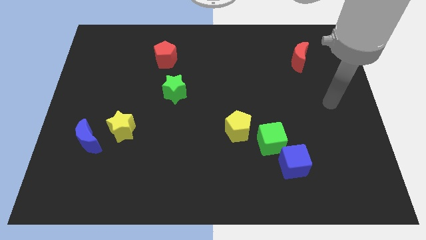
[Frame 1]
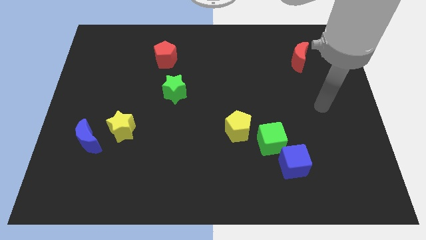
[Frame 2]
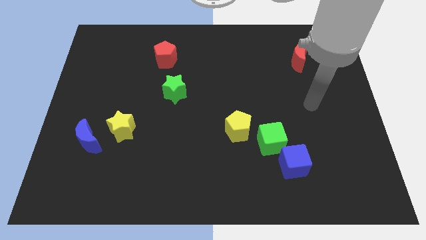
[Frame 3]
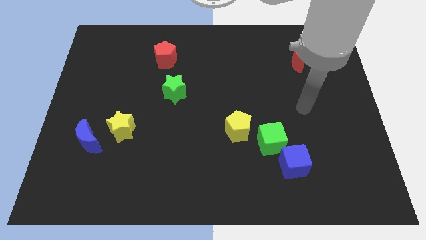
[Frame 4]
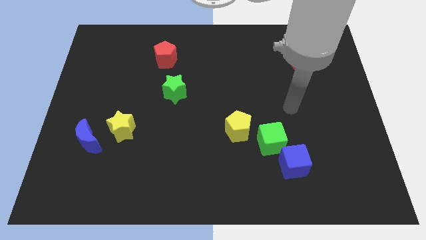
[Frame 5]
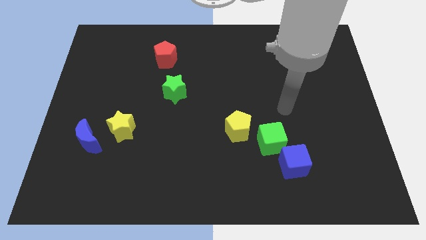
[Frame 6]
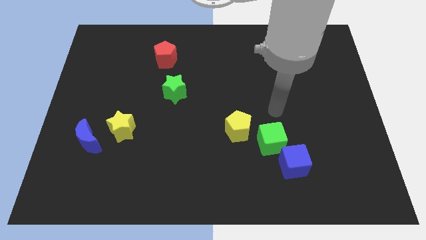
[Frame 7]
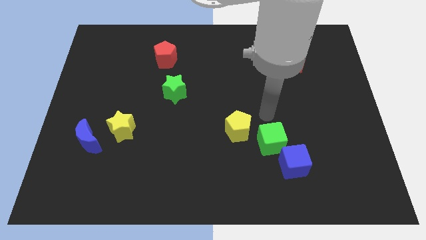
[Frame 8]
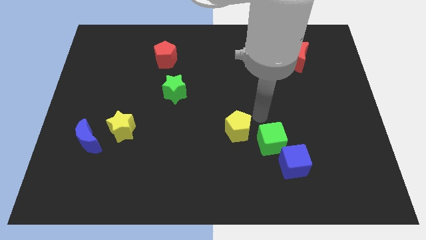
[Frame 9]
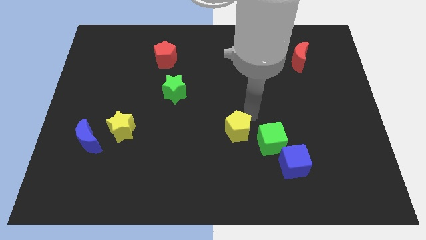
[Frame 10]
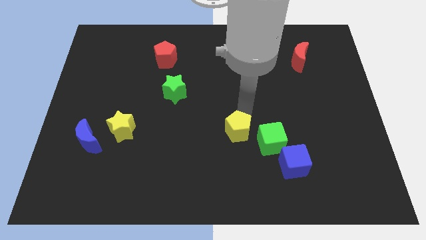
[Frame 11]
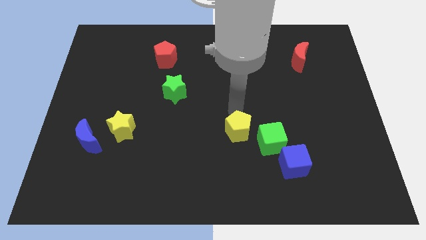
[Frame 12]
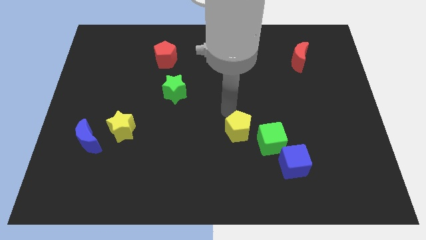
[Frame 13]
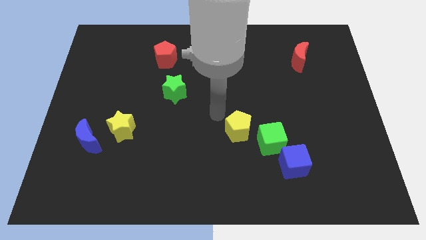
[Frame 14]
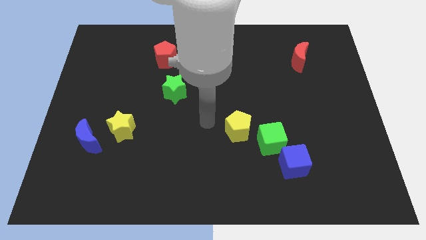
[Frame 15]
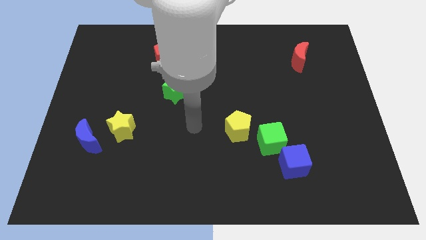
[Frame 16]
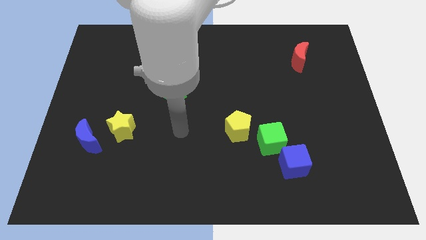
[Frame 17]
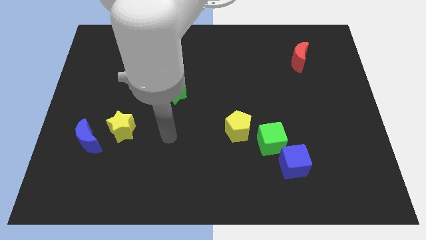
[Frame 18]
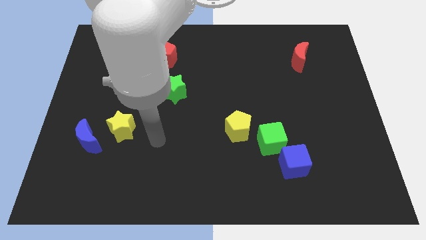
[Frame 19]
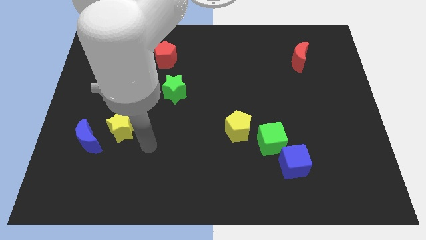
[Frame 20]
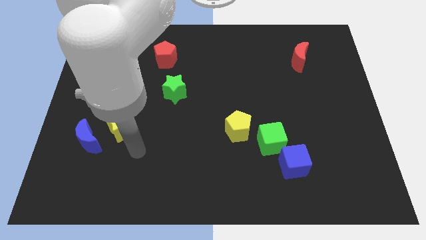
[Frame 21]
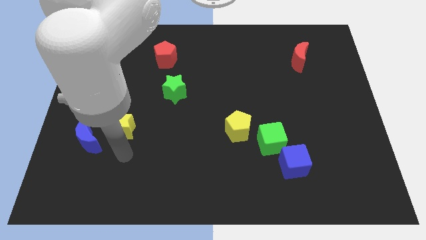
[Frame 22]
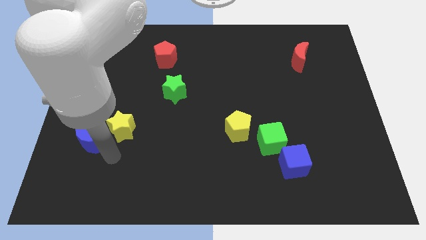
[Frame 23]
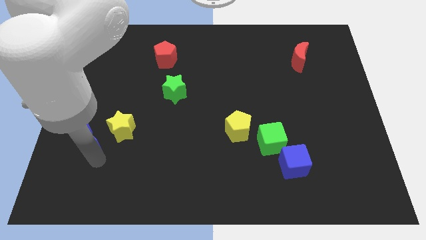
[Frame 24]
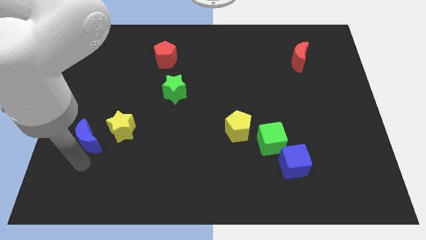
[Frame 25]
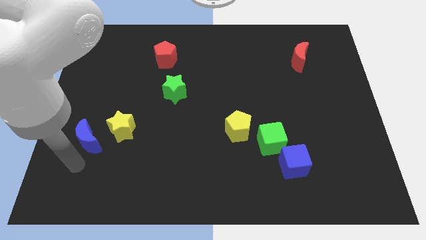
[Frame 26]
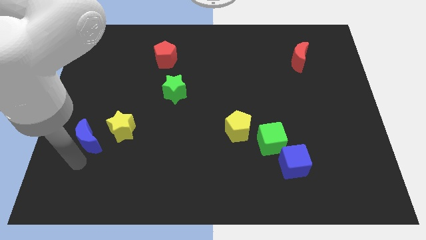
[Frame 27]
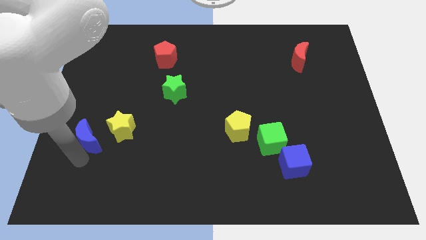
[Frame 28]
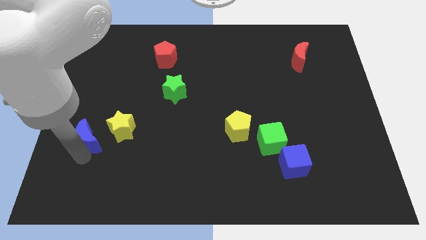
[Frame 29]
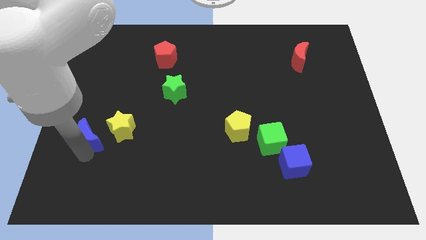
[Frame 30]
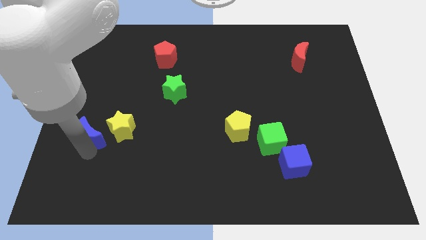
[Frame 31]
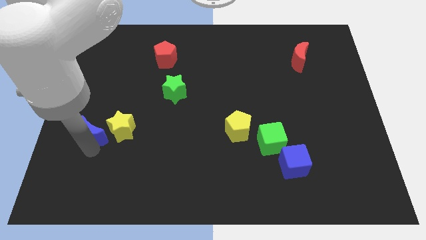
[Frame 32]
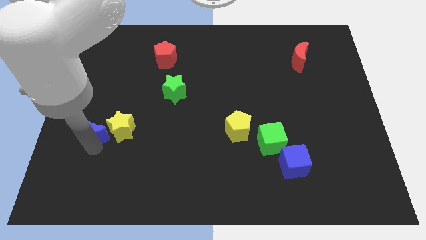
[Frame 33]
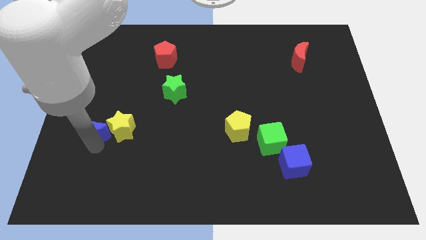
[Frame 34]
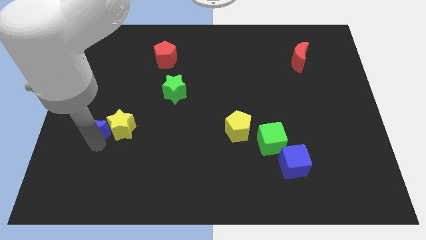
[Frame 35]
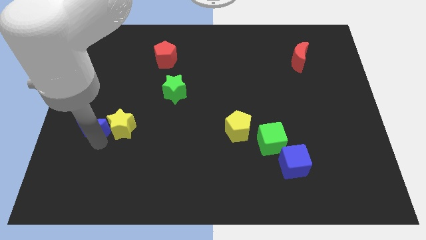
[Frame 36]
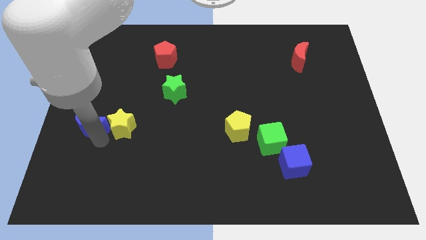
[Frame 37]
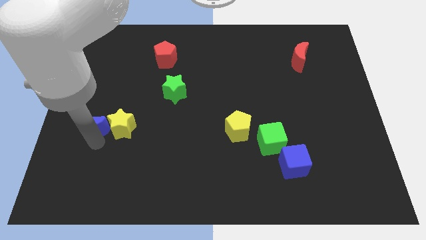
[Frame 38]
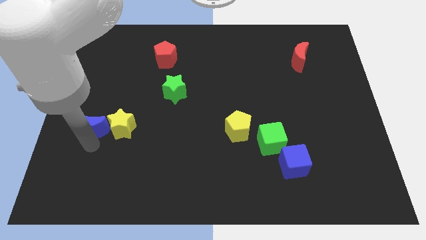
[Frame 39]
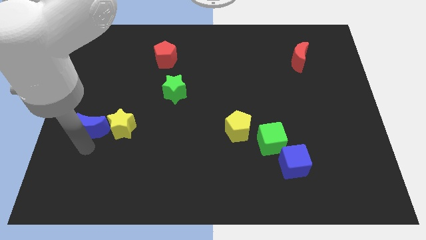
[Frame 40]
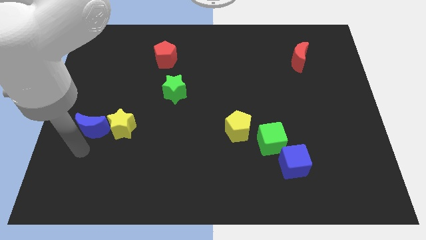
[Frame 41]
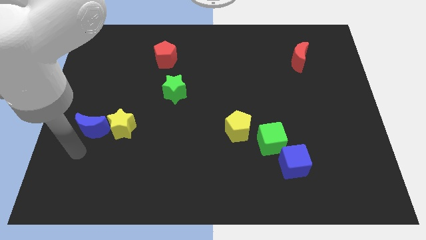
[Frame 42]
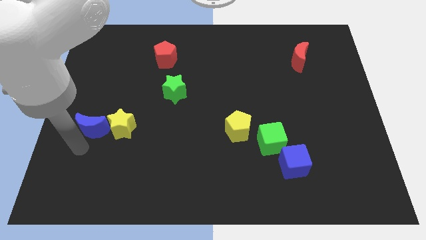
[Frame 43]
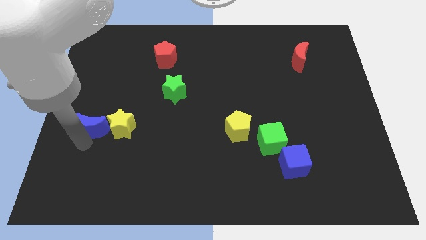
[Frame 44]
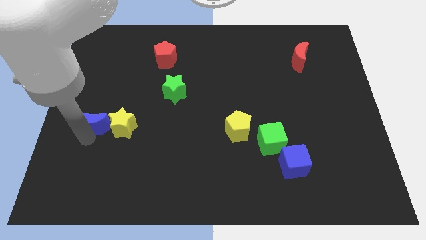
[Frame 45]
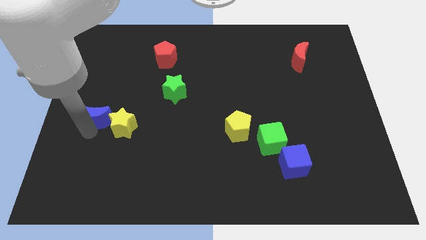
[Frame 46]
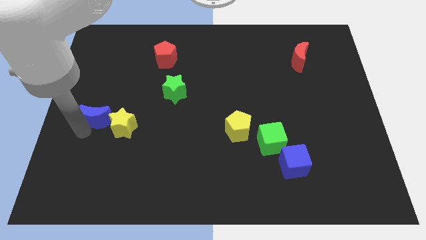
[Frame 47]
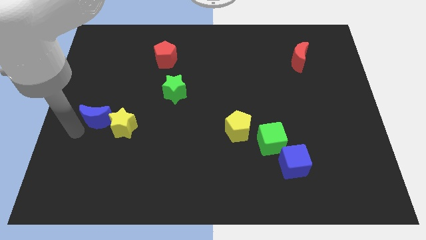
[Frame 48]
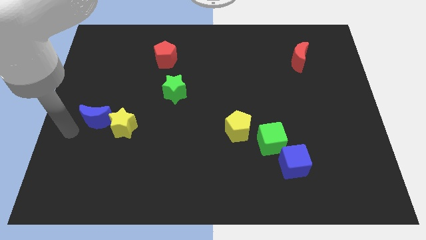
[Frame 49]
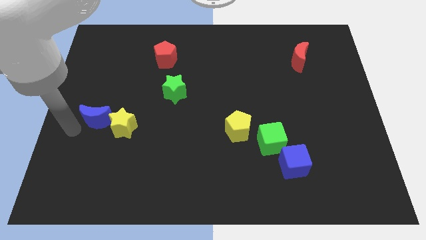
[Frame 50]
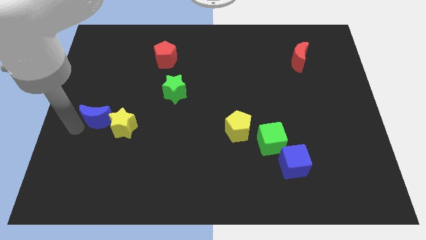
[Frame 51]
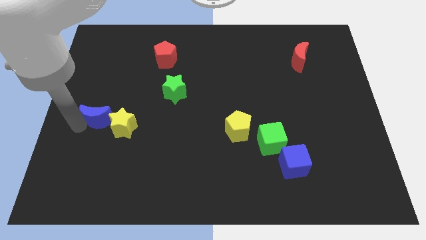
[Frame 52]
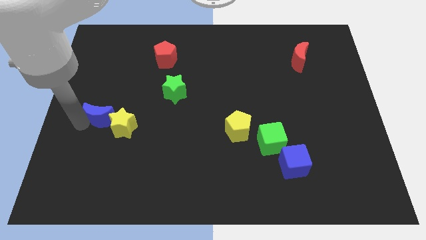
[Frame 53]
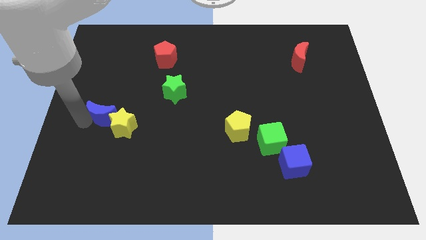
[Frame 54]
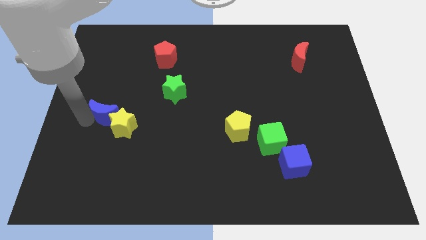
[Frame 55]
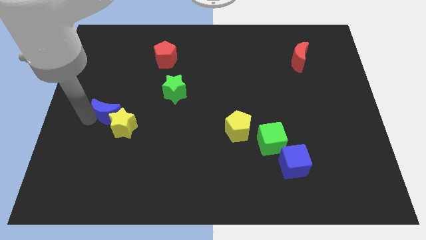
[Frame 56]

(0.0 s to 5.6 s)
slide the blue moon upwards and right somewhat

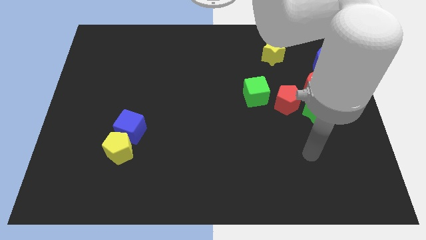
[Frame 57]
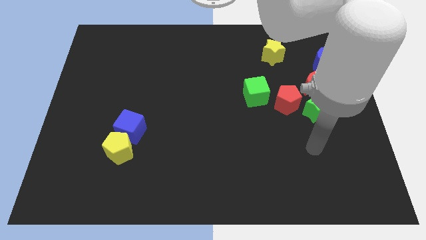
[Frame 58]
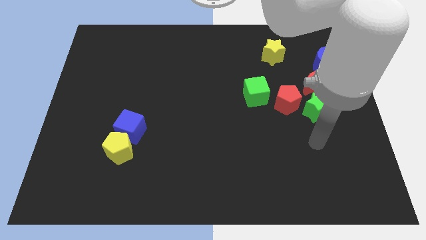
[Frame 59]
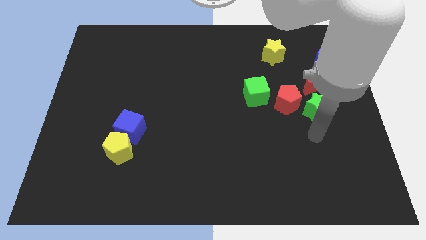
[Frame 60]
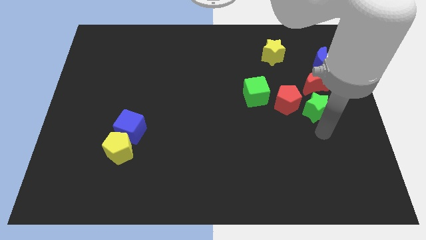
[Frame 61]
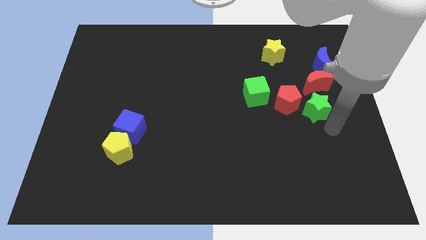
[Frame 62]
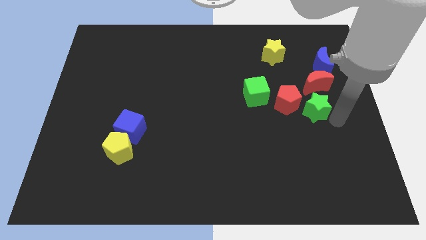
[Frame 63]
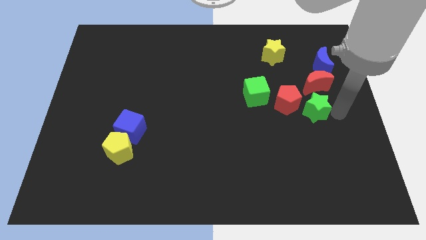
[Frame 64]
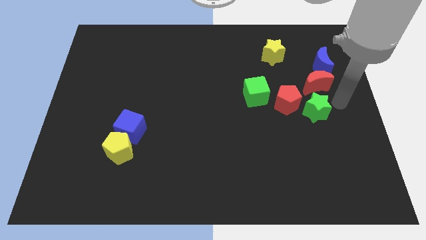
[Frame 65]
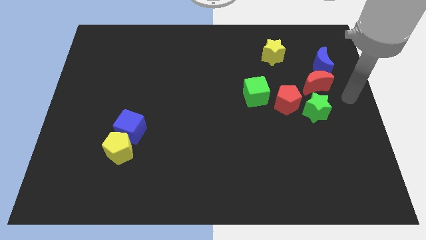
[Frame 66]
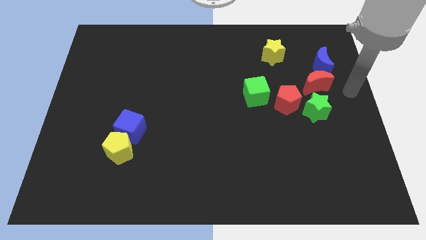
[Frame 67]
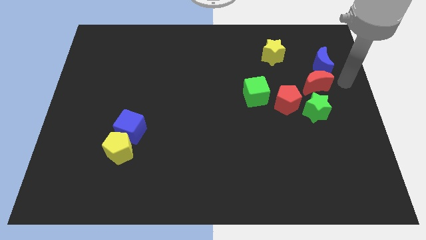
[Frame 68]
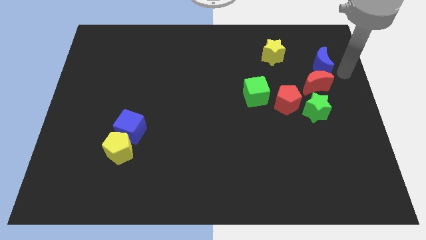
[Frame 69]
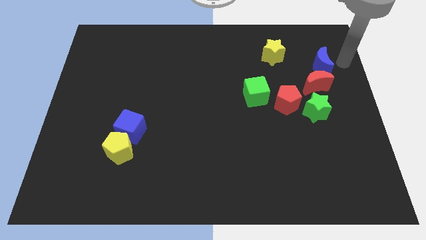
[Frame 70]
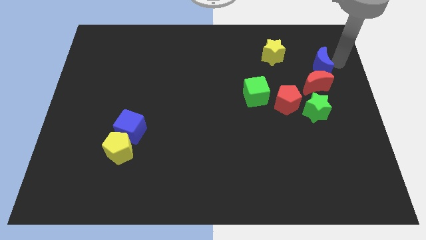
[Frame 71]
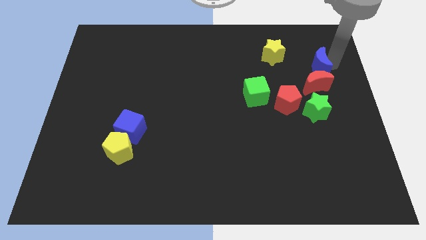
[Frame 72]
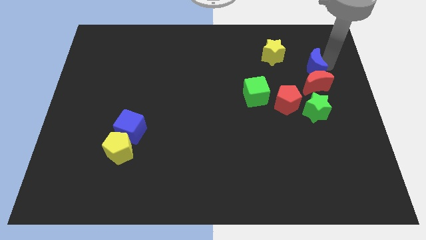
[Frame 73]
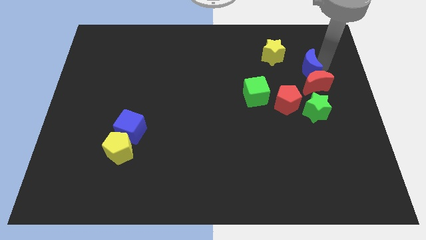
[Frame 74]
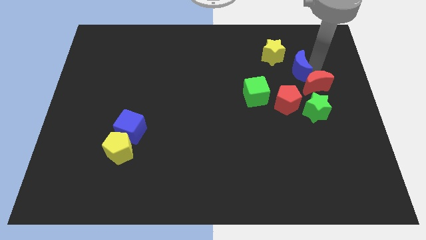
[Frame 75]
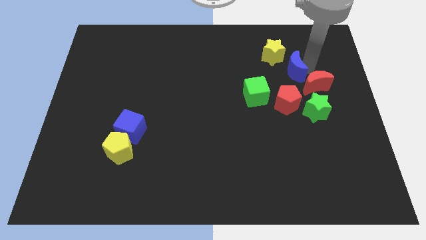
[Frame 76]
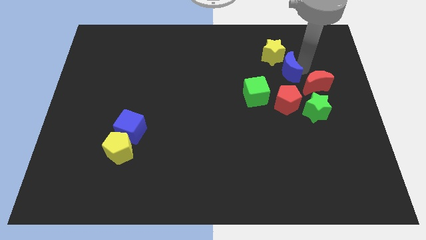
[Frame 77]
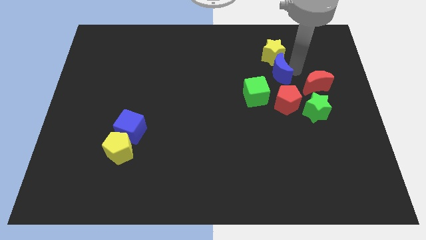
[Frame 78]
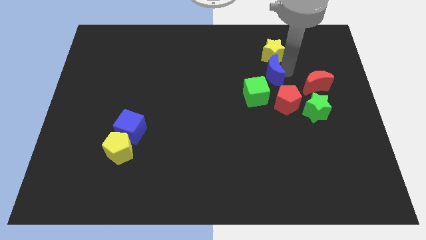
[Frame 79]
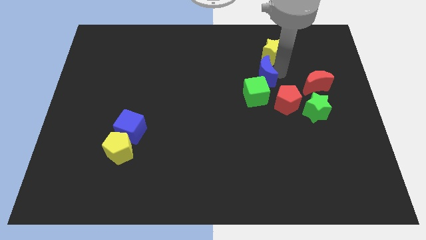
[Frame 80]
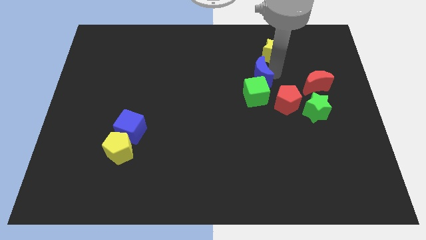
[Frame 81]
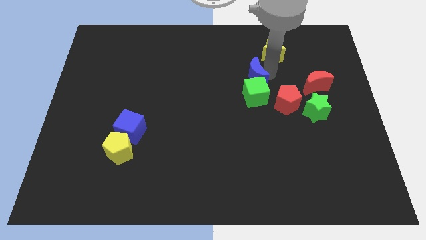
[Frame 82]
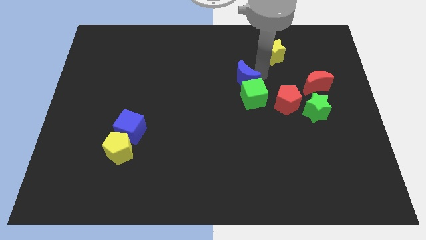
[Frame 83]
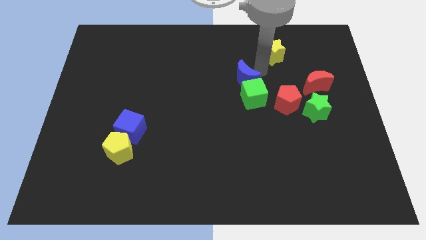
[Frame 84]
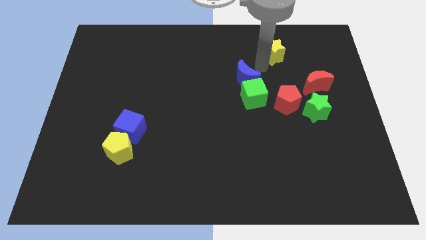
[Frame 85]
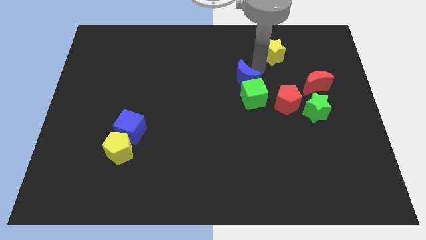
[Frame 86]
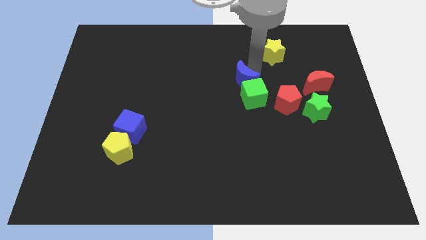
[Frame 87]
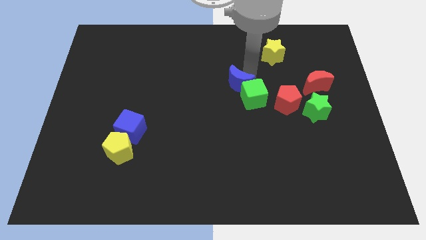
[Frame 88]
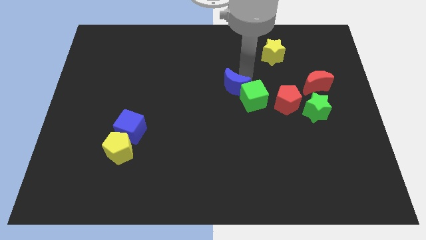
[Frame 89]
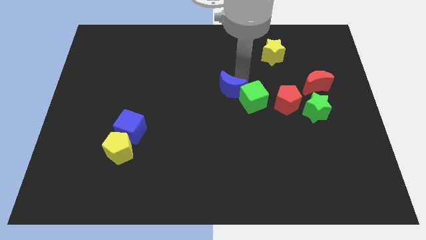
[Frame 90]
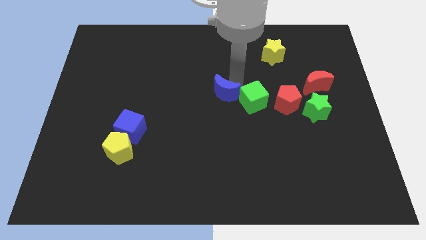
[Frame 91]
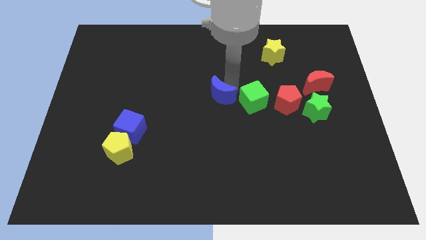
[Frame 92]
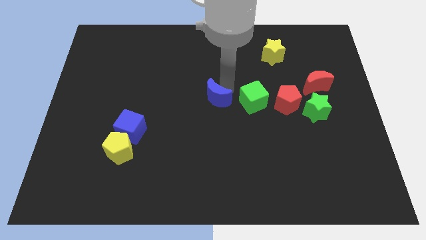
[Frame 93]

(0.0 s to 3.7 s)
push the blue moon diagonally down and to the left
